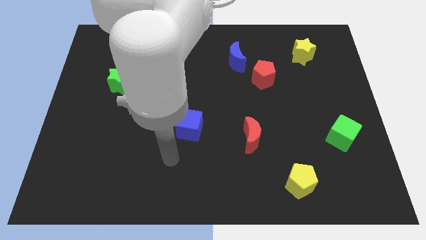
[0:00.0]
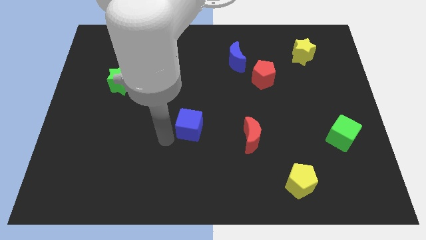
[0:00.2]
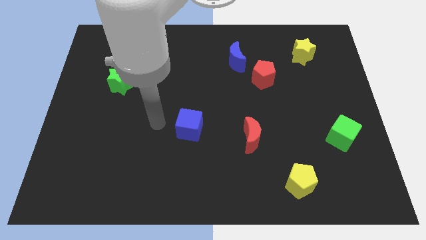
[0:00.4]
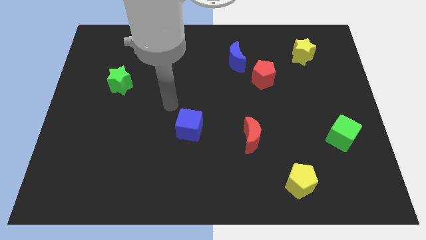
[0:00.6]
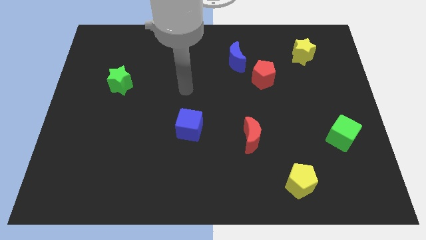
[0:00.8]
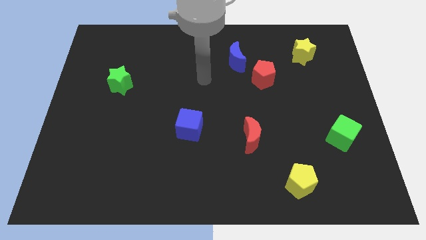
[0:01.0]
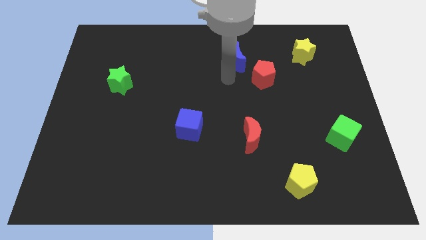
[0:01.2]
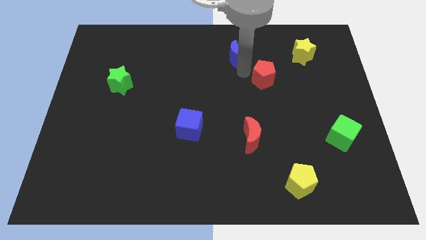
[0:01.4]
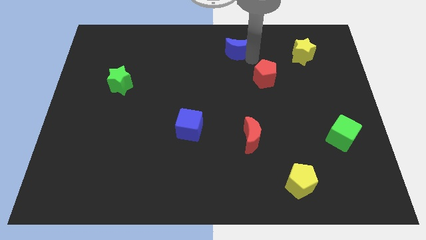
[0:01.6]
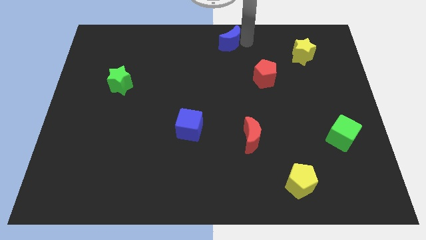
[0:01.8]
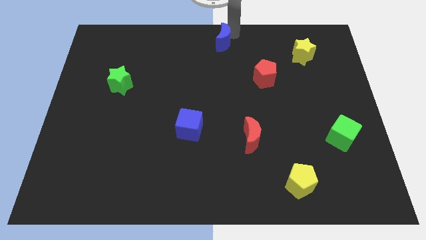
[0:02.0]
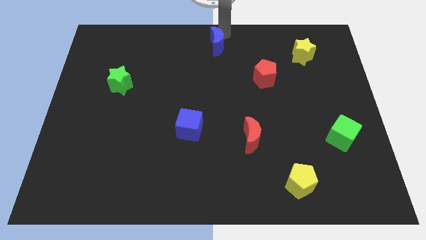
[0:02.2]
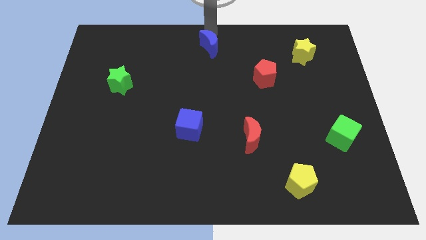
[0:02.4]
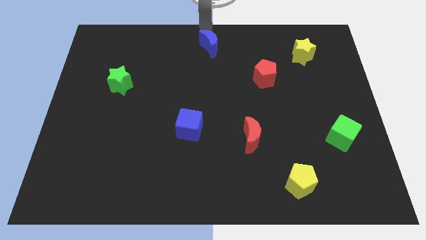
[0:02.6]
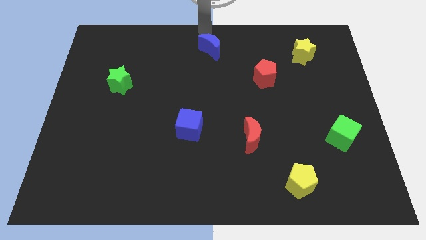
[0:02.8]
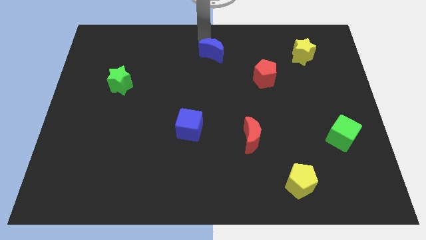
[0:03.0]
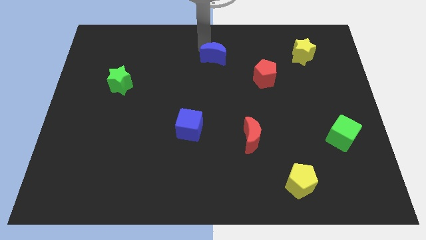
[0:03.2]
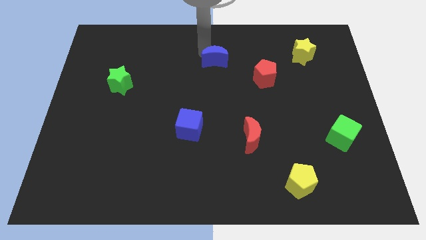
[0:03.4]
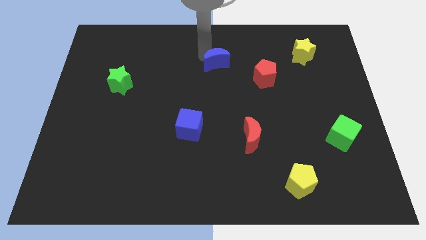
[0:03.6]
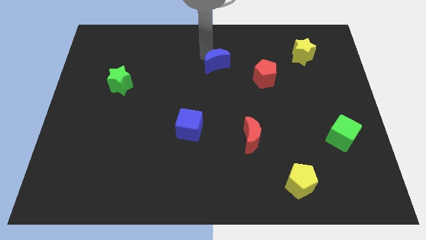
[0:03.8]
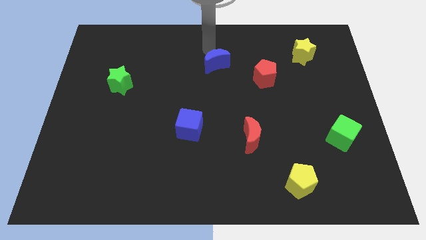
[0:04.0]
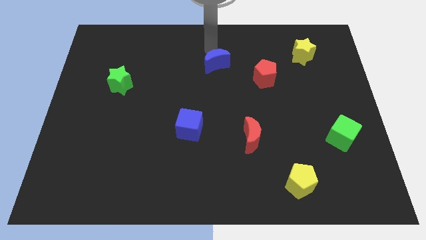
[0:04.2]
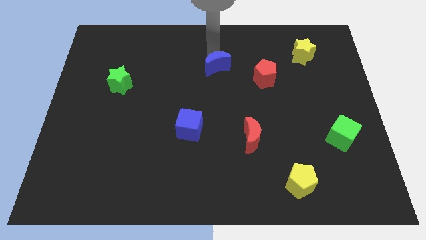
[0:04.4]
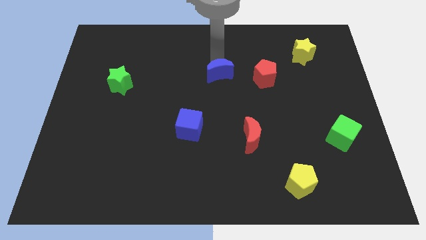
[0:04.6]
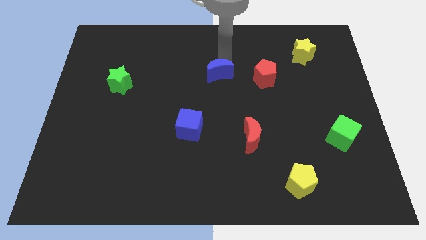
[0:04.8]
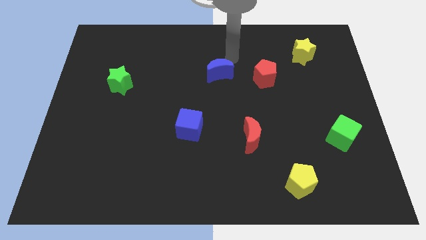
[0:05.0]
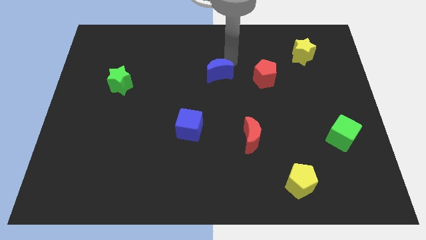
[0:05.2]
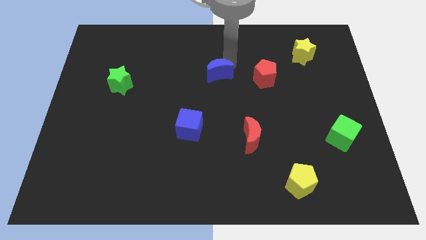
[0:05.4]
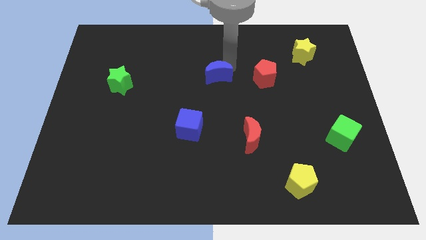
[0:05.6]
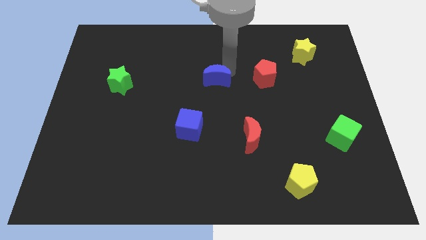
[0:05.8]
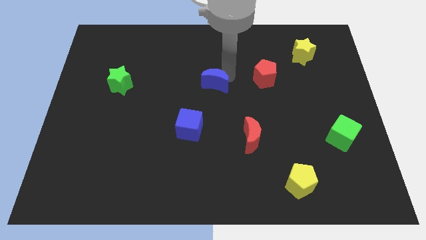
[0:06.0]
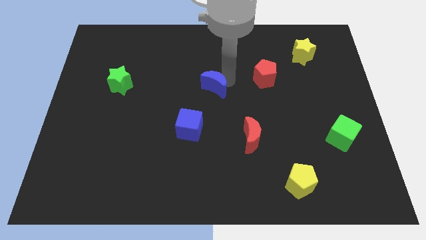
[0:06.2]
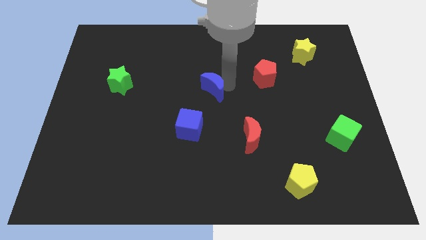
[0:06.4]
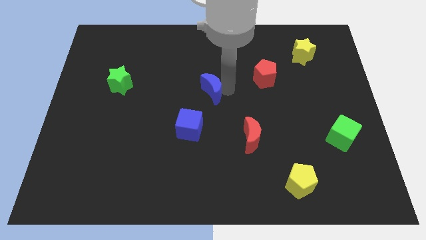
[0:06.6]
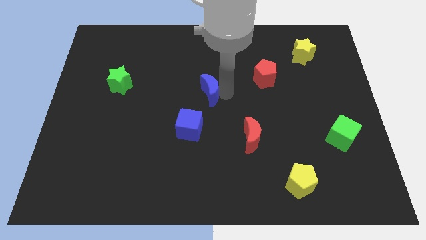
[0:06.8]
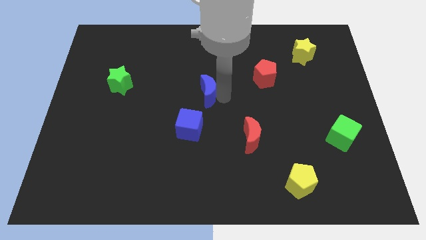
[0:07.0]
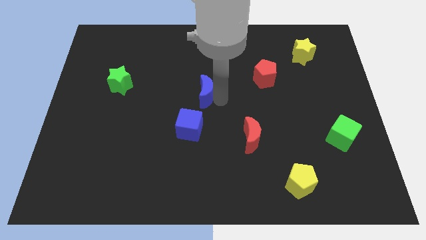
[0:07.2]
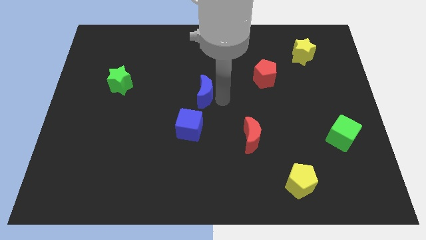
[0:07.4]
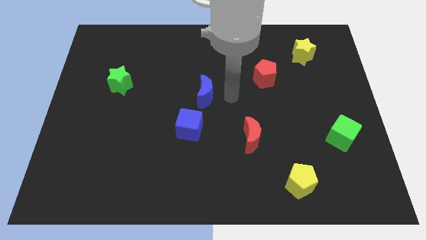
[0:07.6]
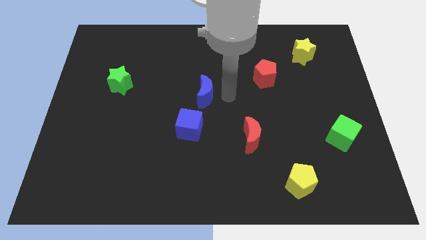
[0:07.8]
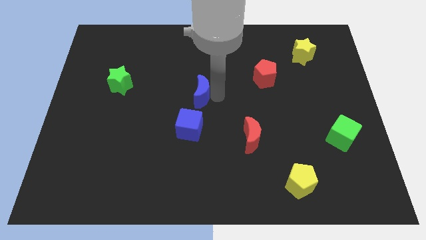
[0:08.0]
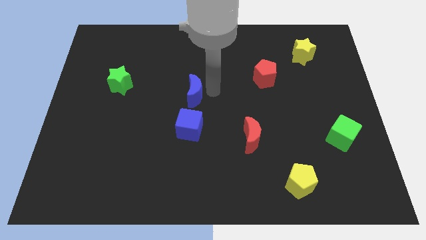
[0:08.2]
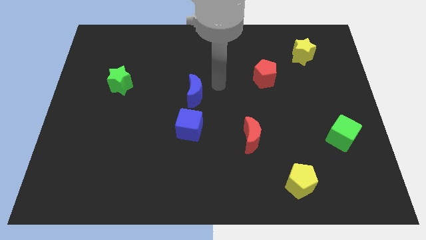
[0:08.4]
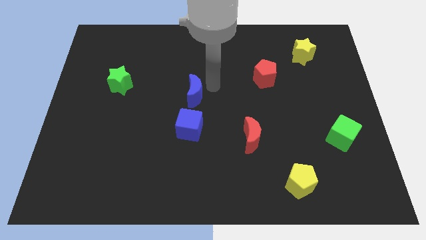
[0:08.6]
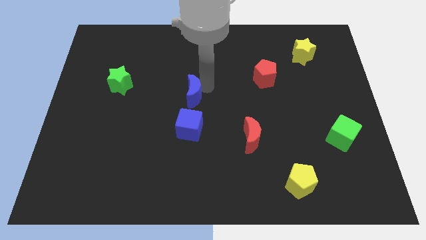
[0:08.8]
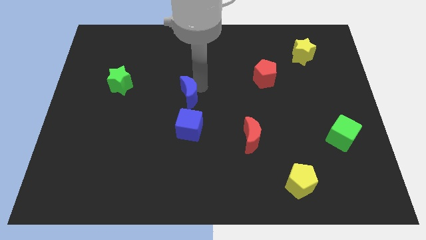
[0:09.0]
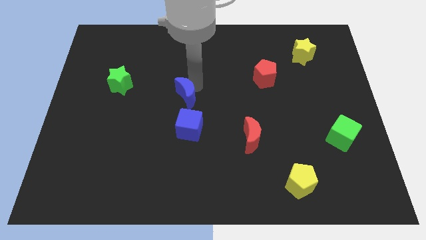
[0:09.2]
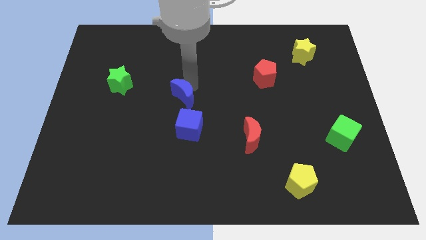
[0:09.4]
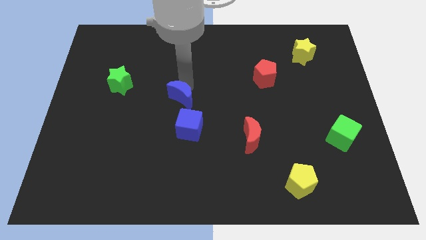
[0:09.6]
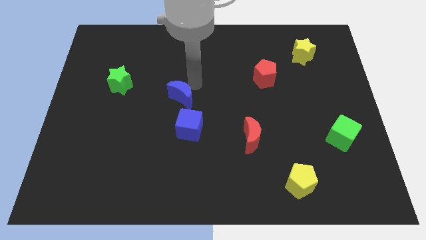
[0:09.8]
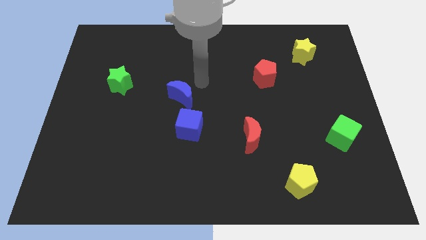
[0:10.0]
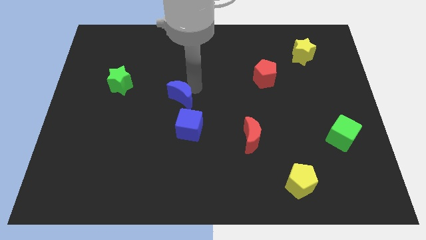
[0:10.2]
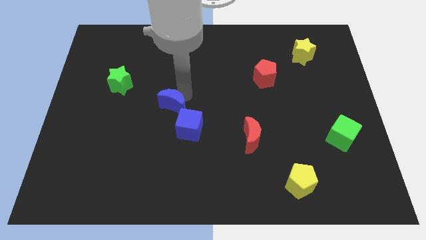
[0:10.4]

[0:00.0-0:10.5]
move the blue moon down and to the left diagonally

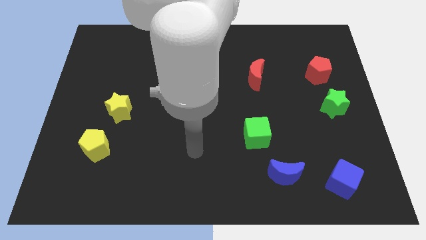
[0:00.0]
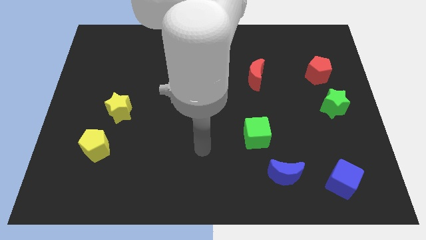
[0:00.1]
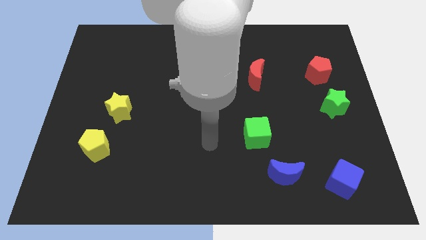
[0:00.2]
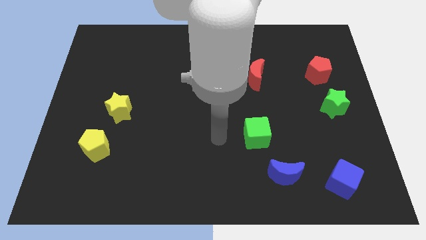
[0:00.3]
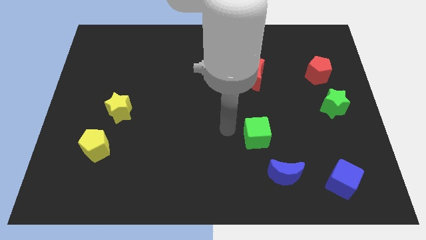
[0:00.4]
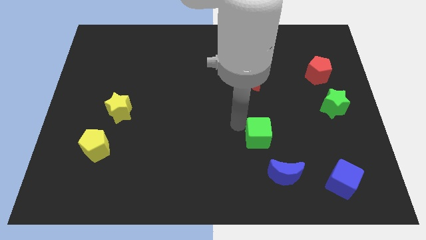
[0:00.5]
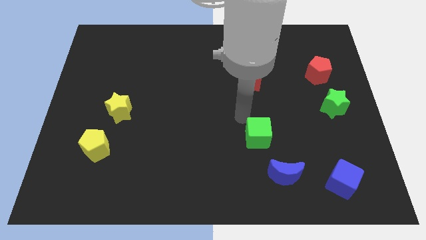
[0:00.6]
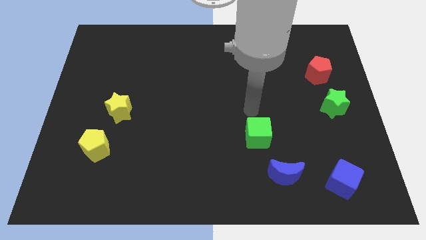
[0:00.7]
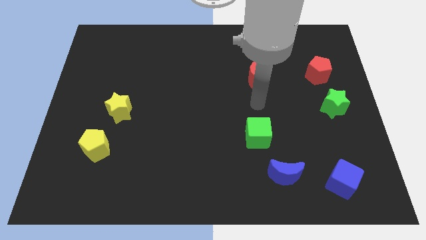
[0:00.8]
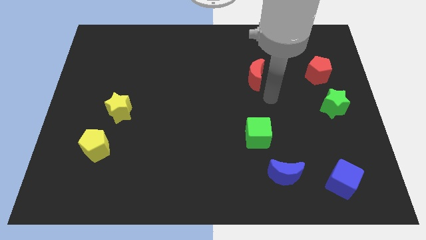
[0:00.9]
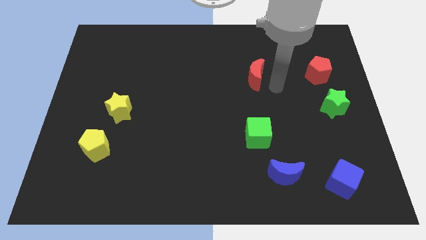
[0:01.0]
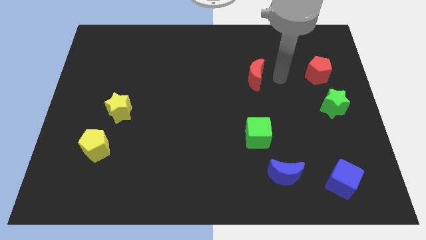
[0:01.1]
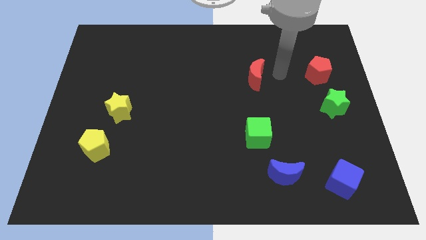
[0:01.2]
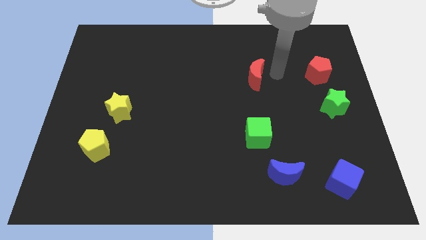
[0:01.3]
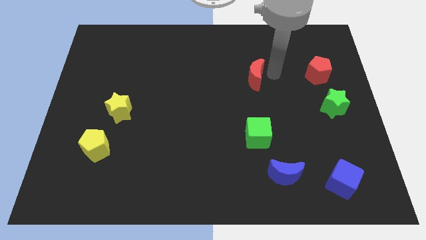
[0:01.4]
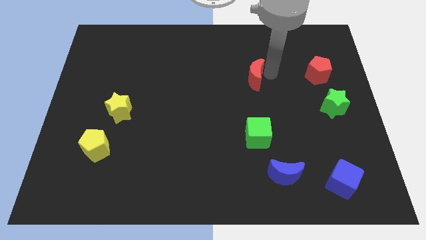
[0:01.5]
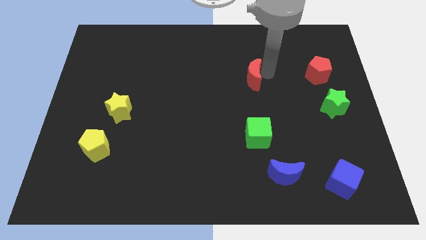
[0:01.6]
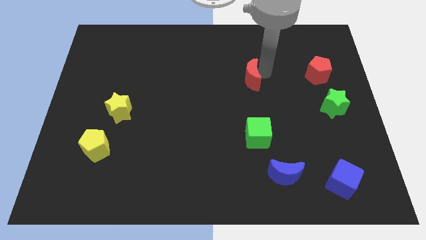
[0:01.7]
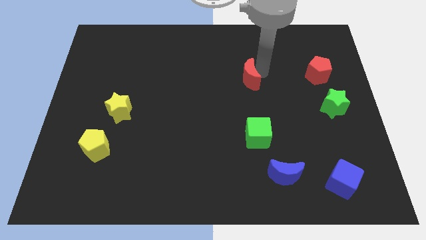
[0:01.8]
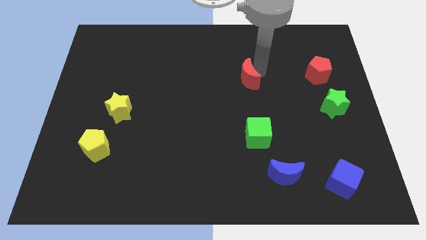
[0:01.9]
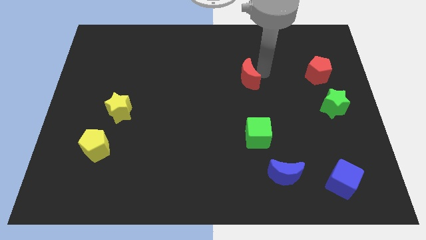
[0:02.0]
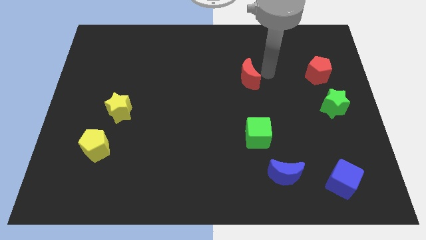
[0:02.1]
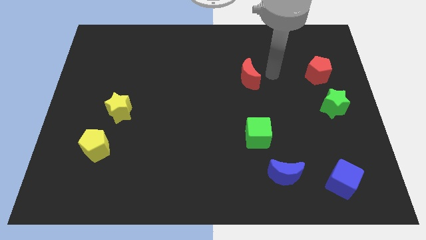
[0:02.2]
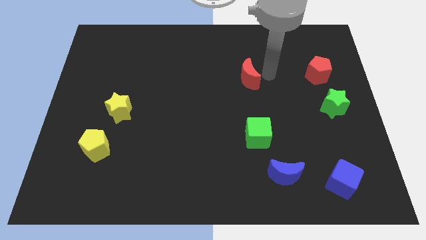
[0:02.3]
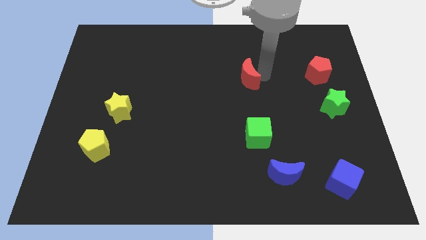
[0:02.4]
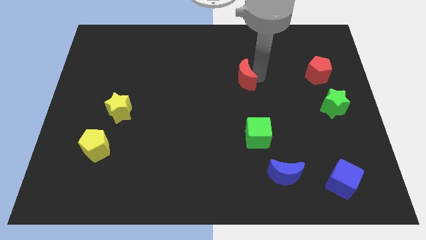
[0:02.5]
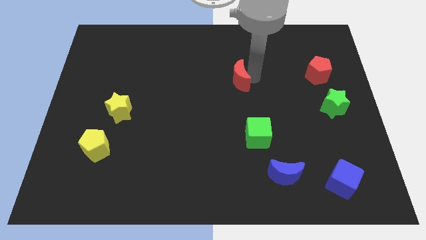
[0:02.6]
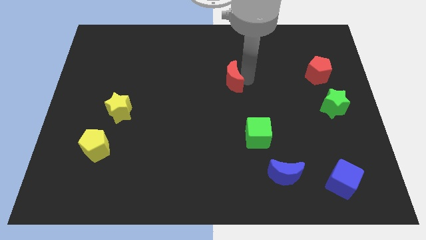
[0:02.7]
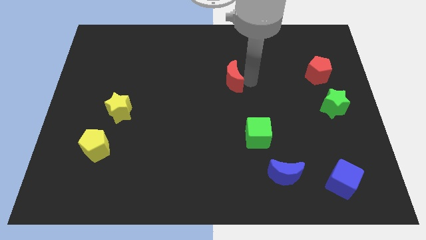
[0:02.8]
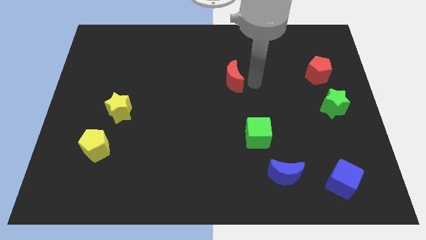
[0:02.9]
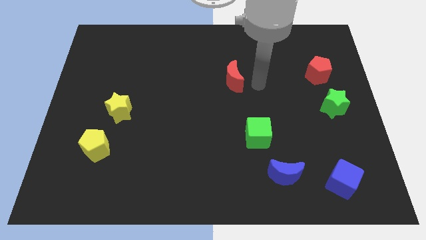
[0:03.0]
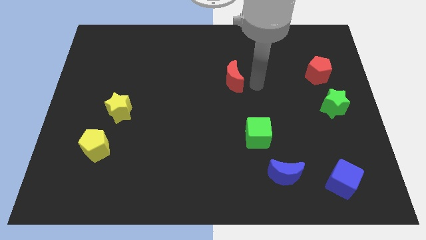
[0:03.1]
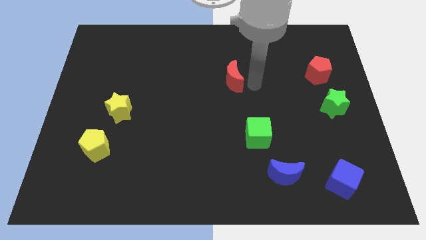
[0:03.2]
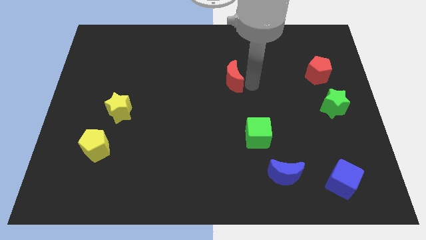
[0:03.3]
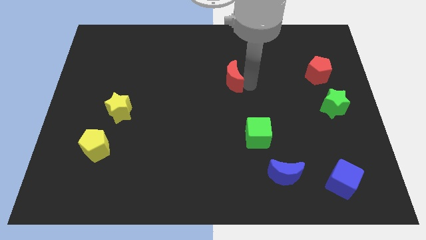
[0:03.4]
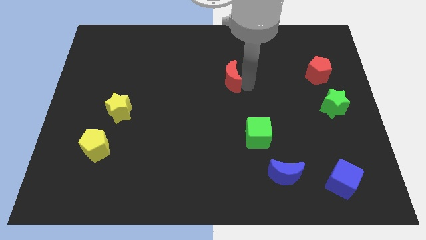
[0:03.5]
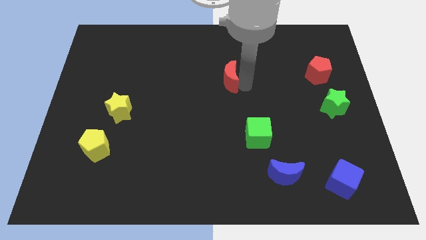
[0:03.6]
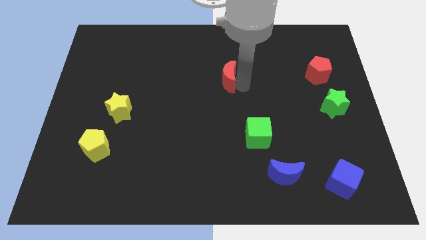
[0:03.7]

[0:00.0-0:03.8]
slightly push the red moon left
